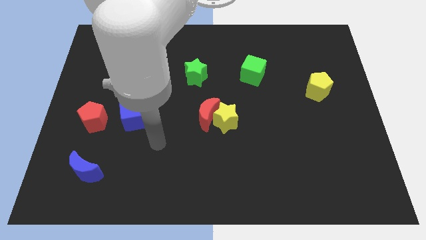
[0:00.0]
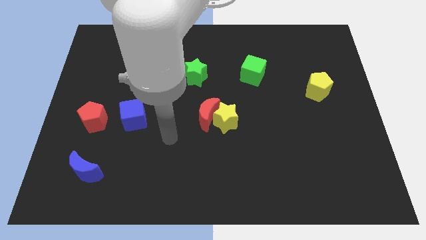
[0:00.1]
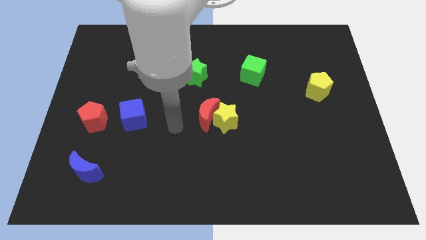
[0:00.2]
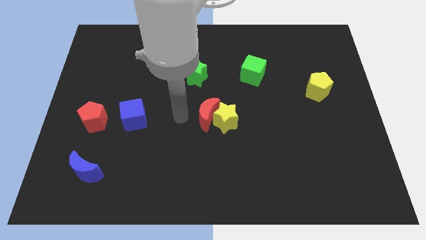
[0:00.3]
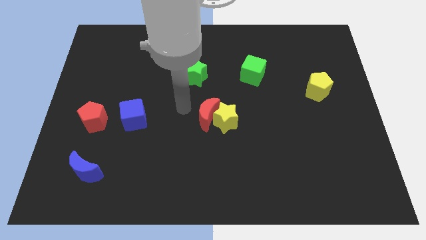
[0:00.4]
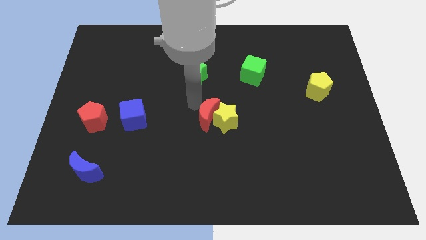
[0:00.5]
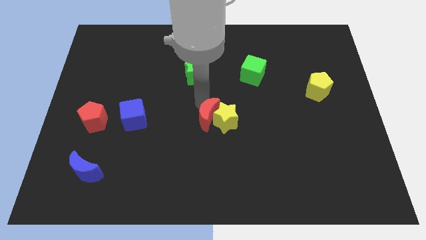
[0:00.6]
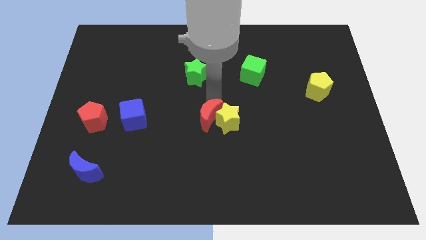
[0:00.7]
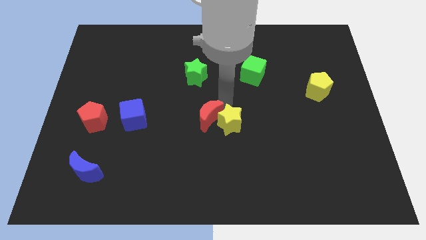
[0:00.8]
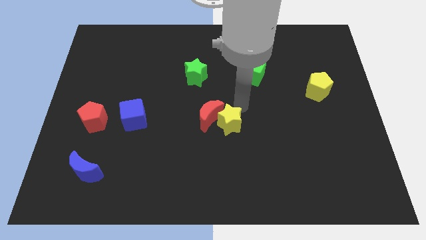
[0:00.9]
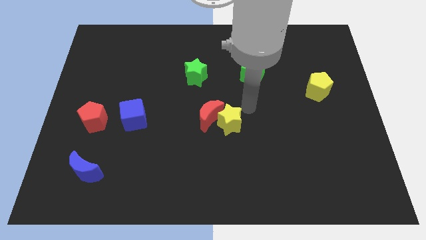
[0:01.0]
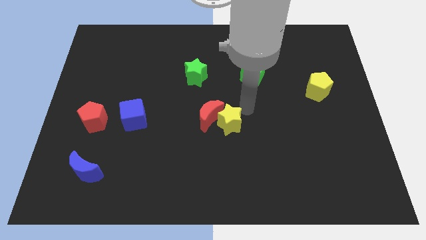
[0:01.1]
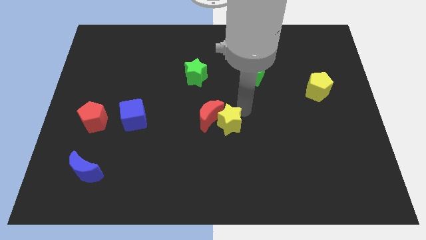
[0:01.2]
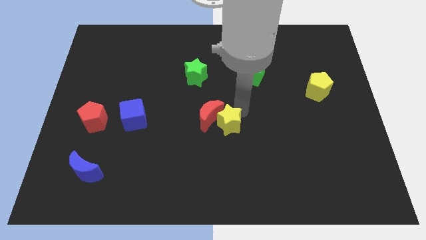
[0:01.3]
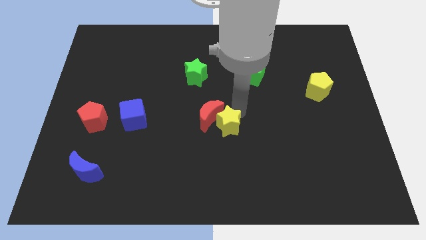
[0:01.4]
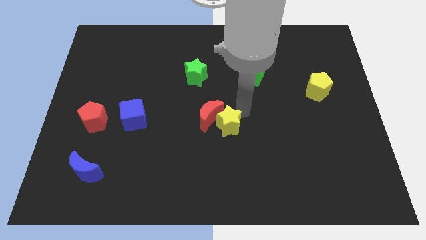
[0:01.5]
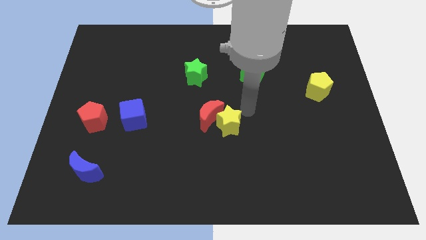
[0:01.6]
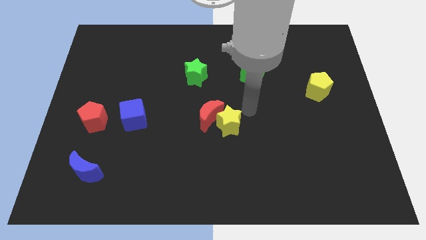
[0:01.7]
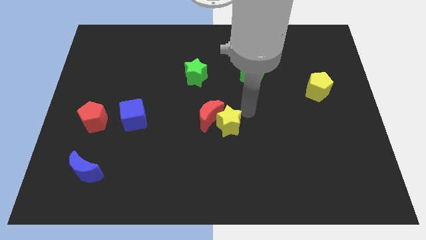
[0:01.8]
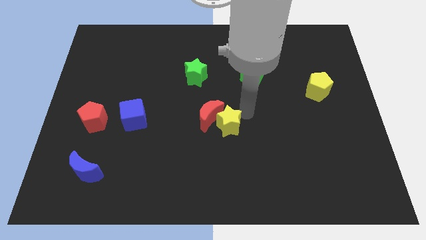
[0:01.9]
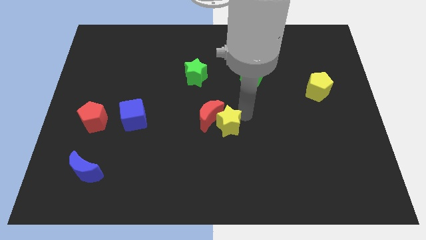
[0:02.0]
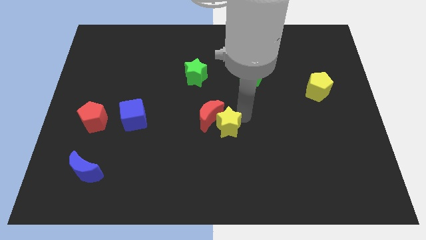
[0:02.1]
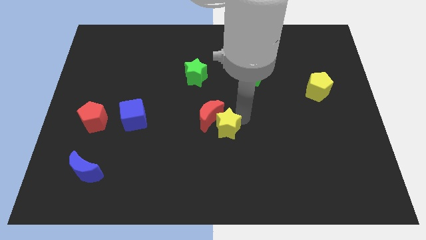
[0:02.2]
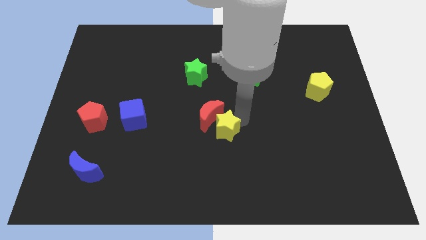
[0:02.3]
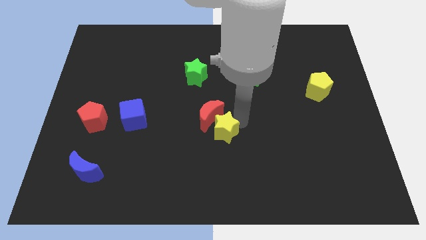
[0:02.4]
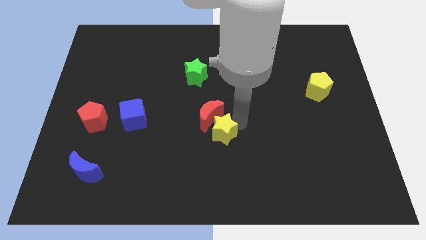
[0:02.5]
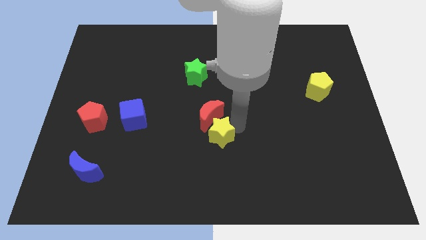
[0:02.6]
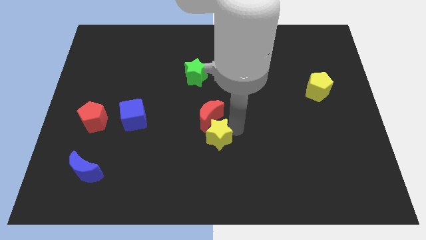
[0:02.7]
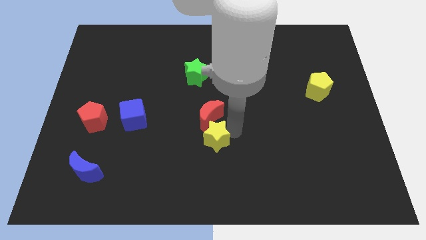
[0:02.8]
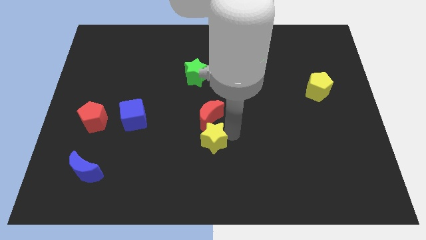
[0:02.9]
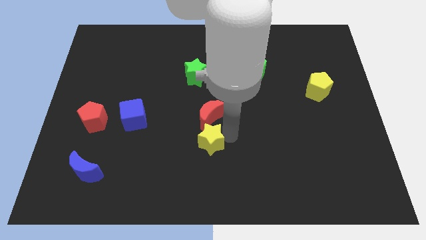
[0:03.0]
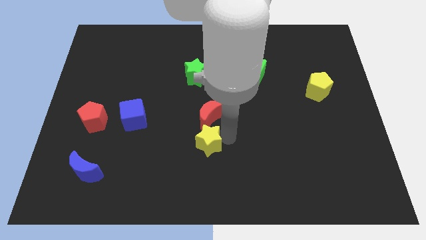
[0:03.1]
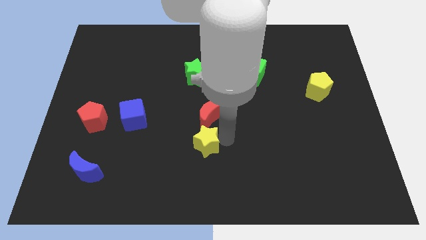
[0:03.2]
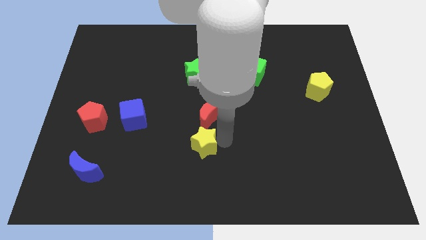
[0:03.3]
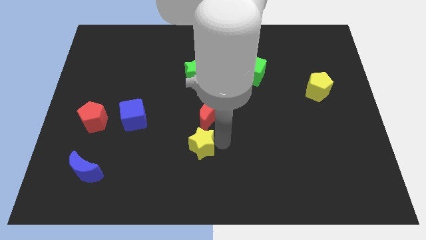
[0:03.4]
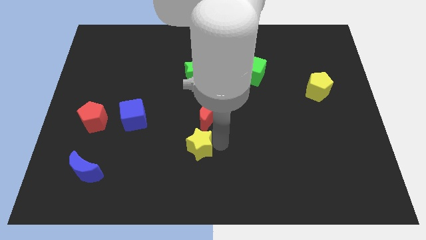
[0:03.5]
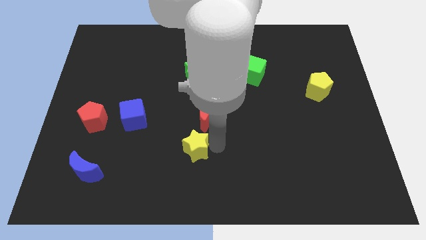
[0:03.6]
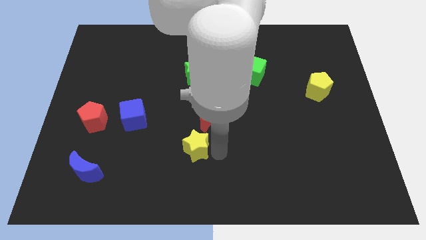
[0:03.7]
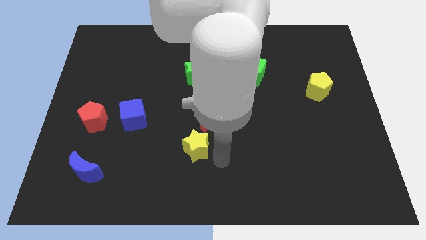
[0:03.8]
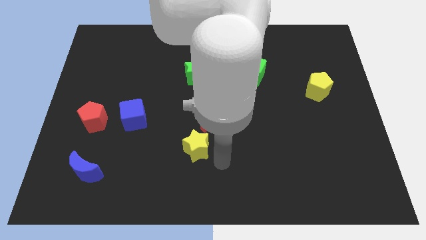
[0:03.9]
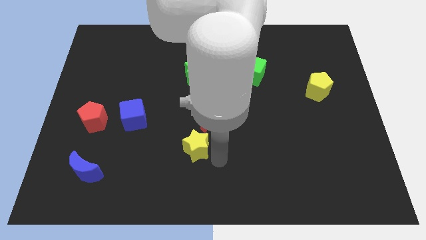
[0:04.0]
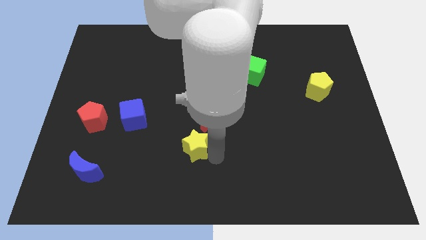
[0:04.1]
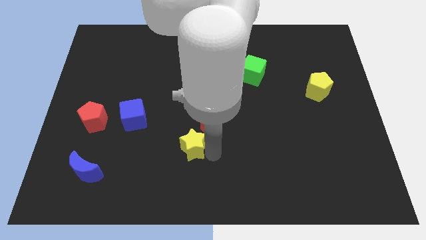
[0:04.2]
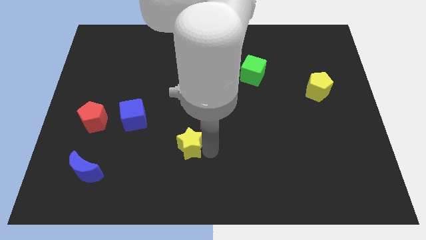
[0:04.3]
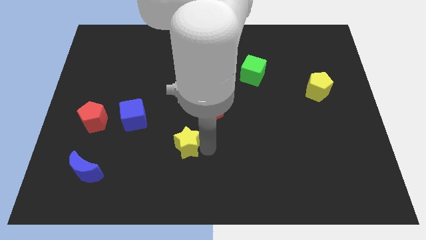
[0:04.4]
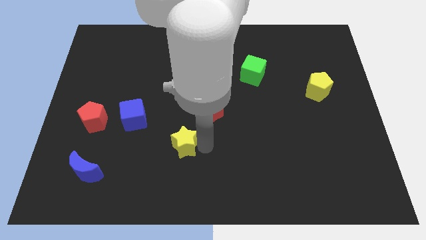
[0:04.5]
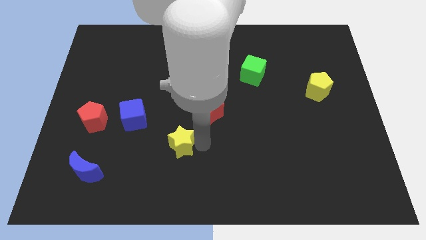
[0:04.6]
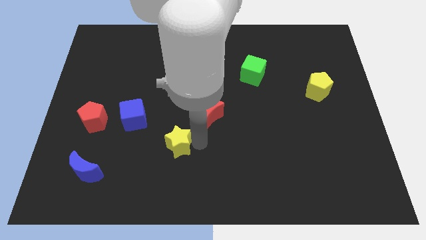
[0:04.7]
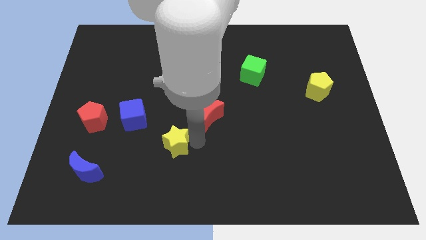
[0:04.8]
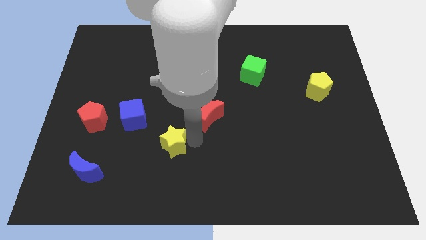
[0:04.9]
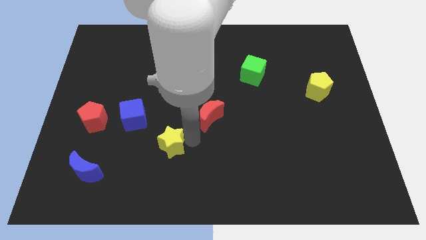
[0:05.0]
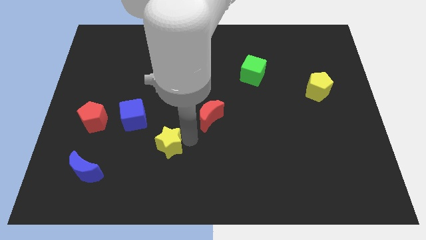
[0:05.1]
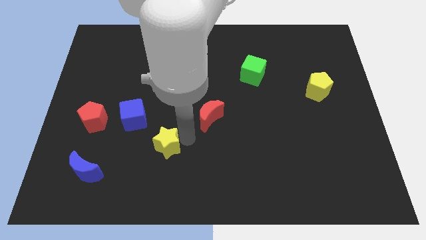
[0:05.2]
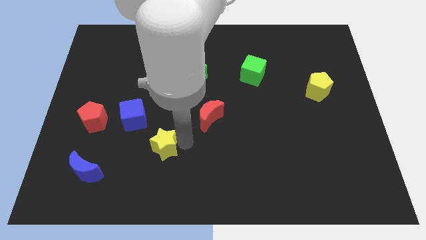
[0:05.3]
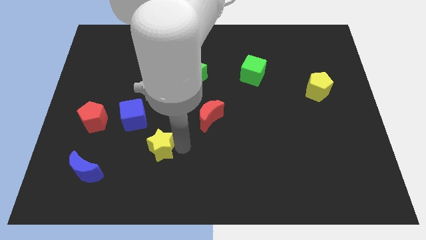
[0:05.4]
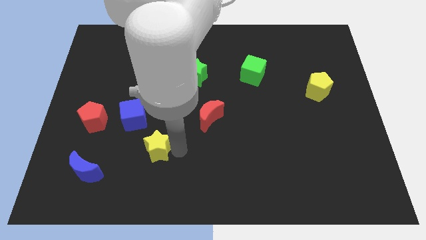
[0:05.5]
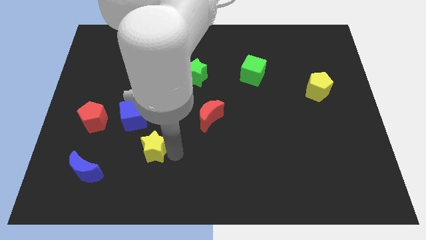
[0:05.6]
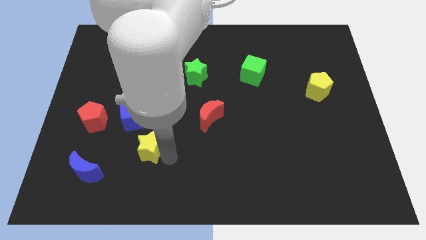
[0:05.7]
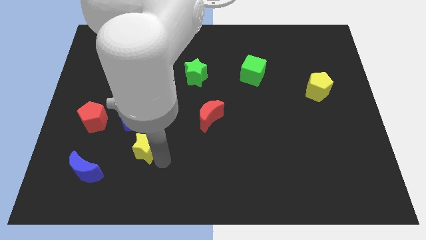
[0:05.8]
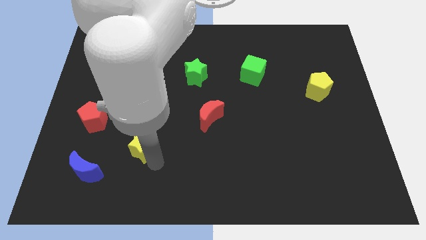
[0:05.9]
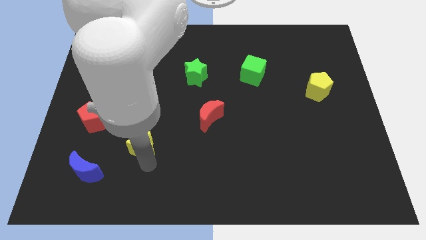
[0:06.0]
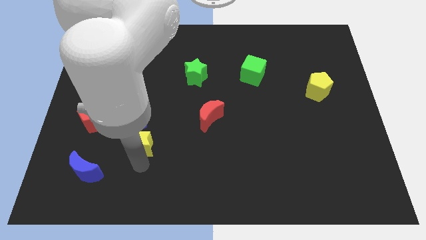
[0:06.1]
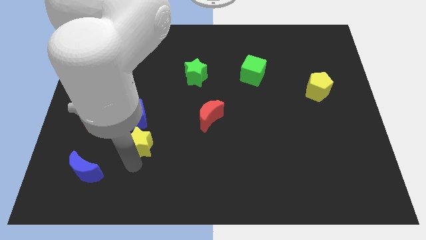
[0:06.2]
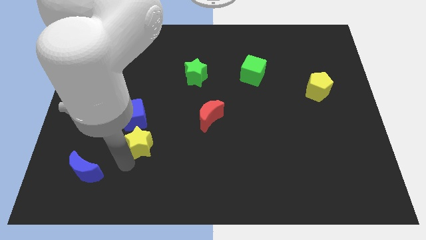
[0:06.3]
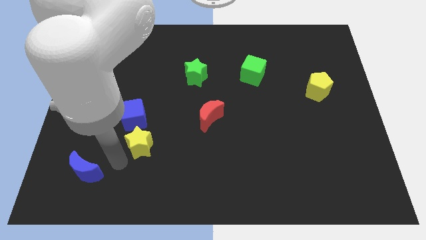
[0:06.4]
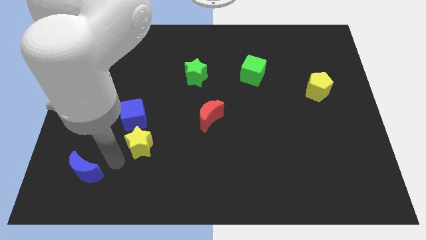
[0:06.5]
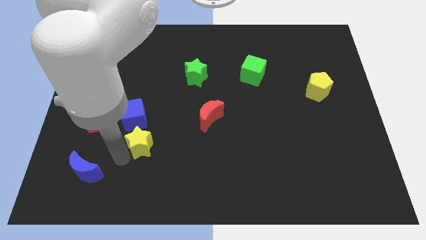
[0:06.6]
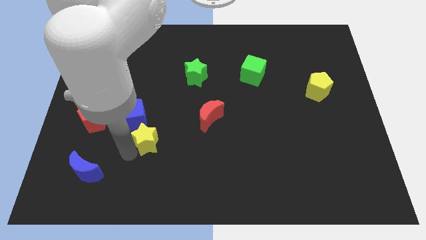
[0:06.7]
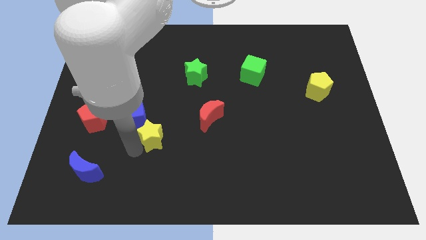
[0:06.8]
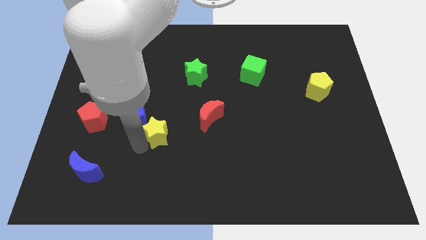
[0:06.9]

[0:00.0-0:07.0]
move the yellow star just right of the red pentagon

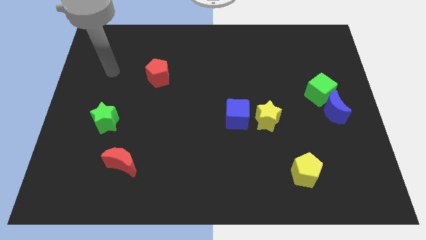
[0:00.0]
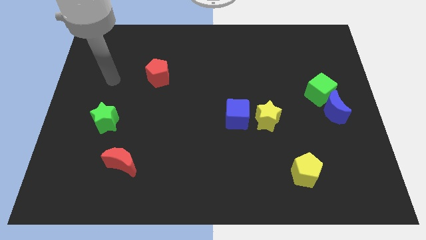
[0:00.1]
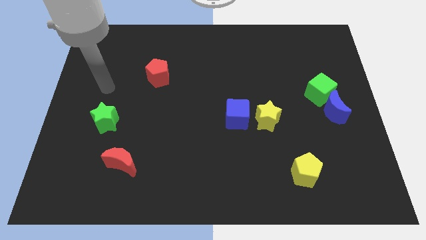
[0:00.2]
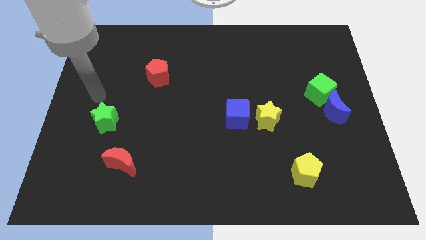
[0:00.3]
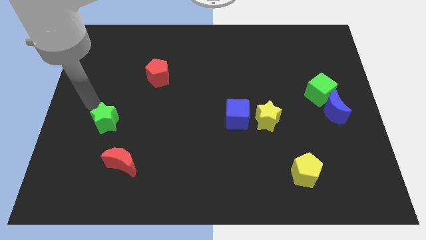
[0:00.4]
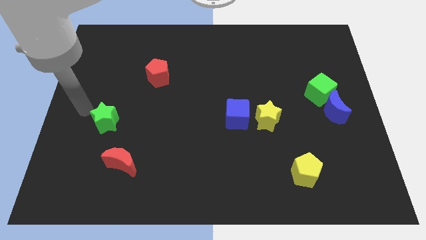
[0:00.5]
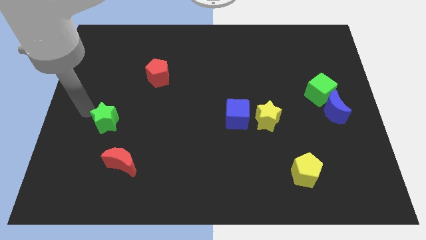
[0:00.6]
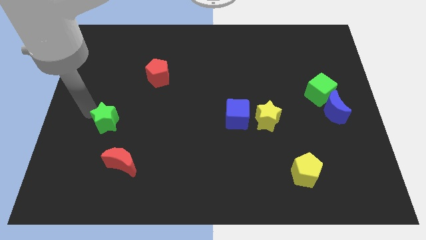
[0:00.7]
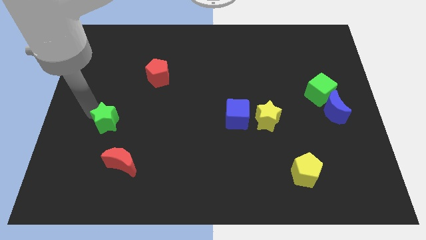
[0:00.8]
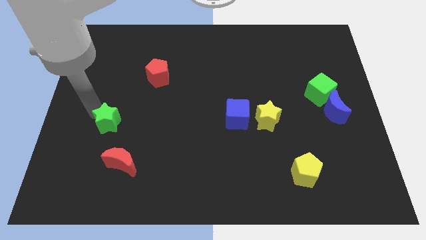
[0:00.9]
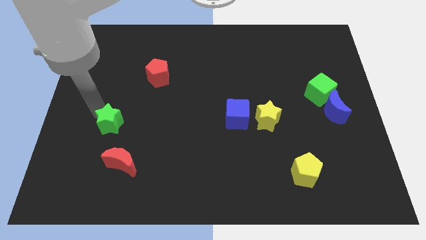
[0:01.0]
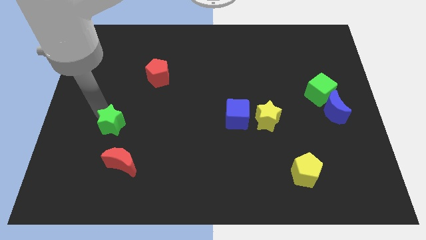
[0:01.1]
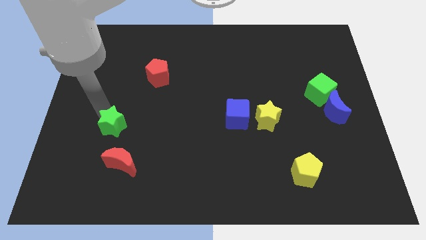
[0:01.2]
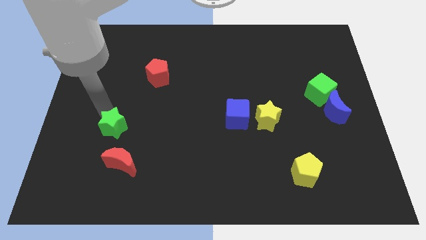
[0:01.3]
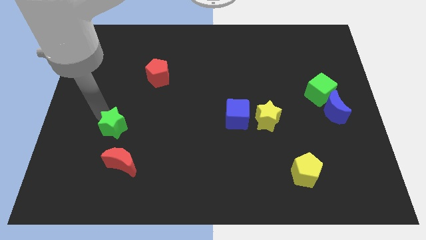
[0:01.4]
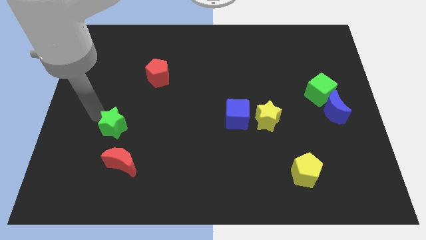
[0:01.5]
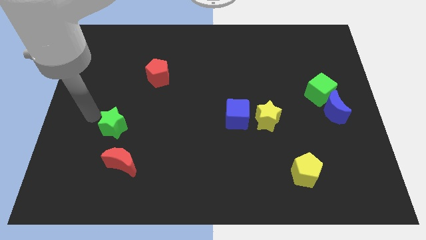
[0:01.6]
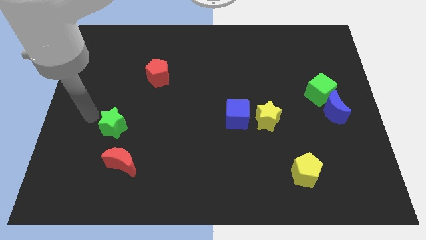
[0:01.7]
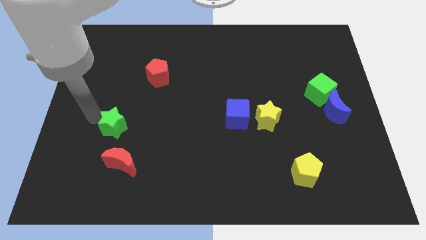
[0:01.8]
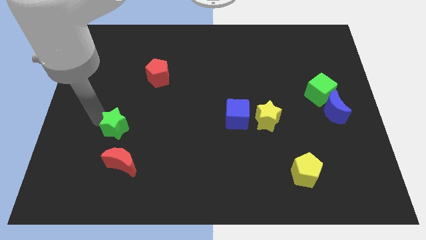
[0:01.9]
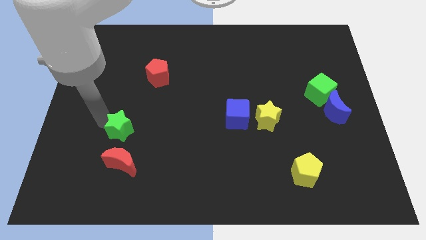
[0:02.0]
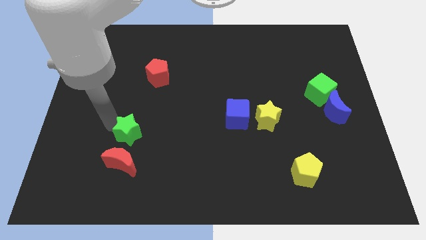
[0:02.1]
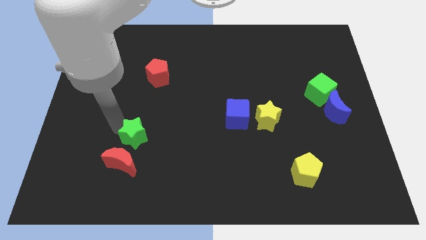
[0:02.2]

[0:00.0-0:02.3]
put the green star diagonally up and to the right of the red moon
